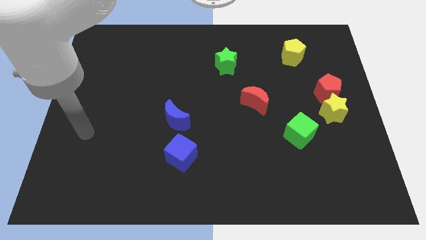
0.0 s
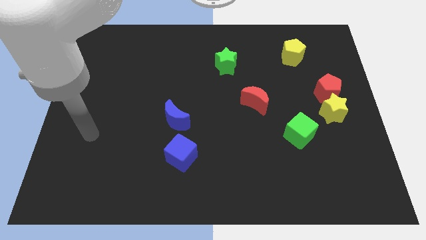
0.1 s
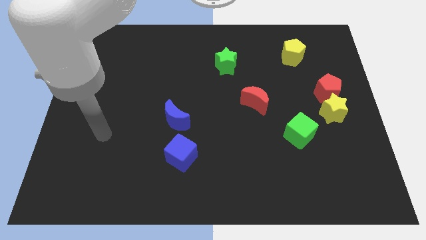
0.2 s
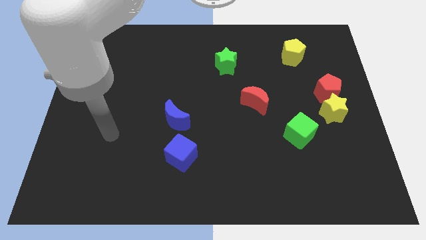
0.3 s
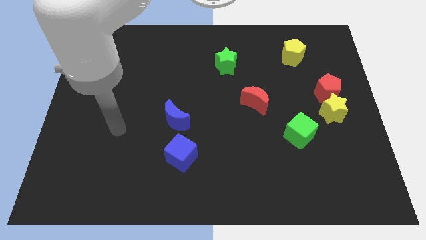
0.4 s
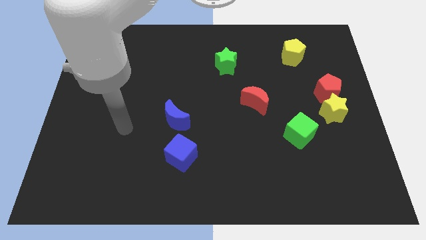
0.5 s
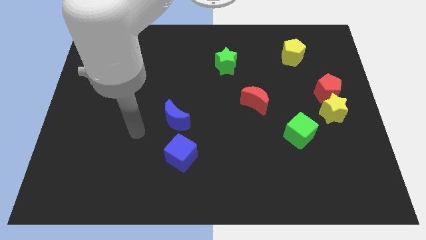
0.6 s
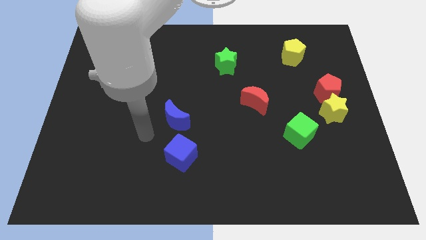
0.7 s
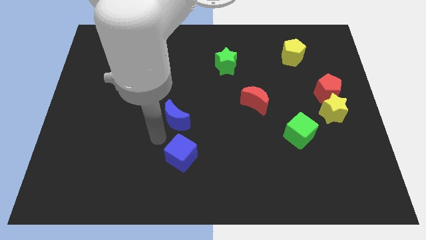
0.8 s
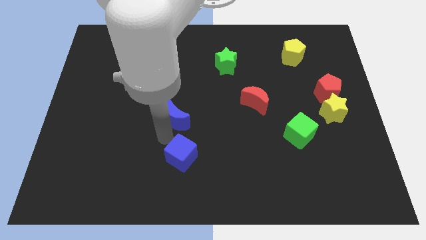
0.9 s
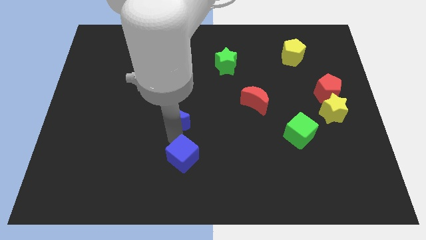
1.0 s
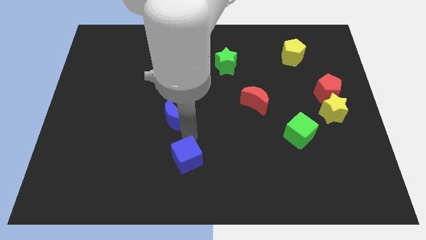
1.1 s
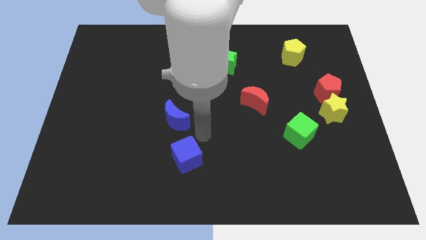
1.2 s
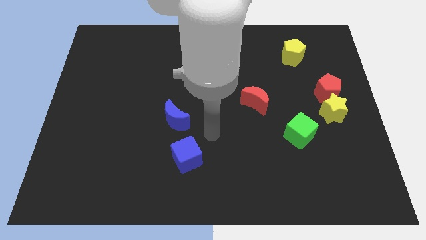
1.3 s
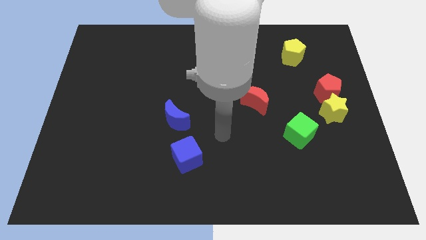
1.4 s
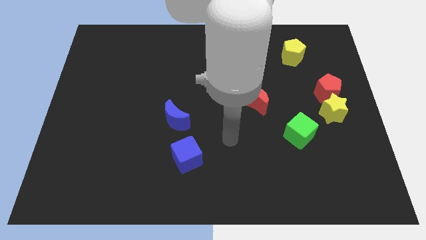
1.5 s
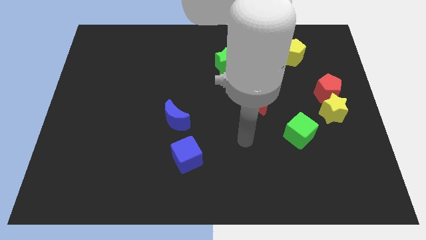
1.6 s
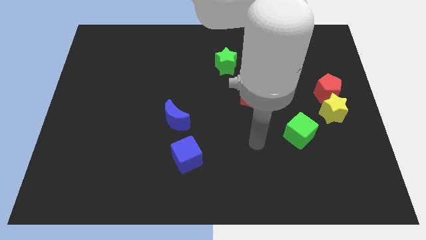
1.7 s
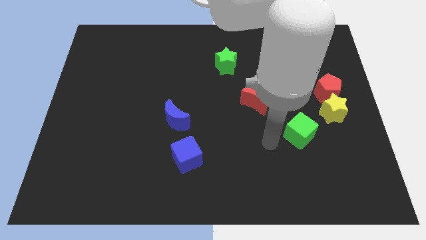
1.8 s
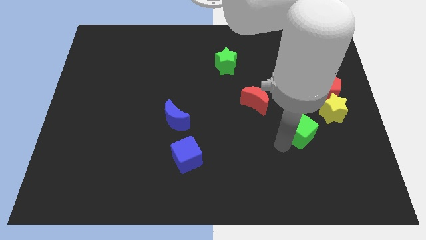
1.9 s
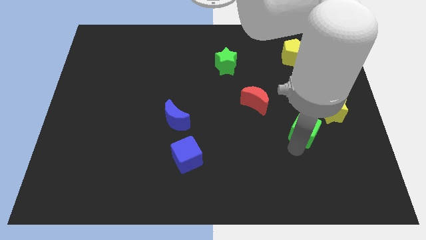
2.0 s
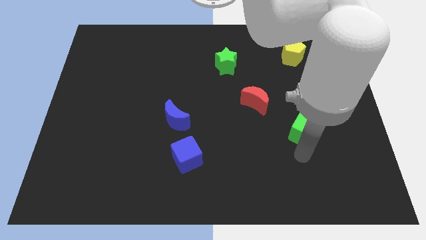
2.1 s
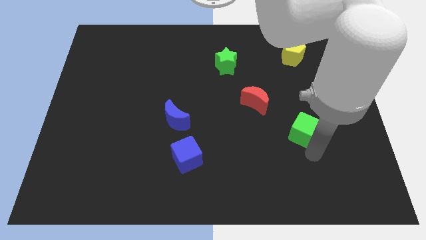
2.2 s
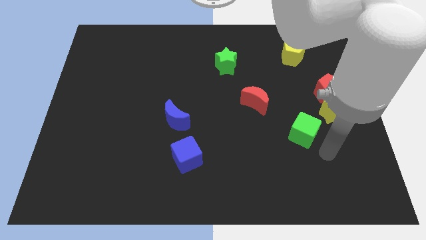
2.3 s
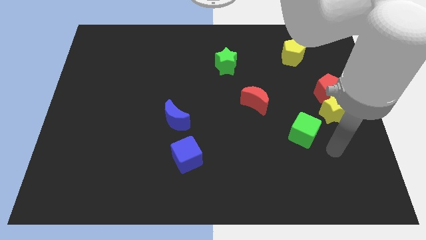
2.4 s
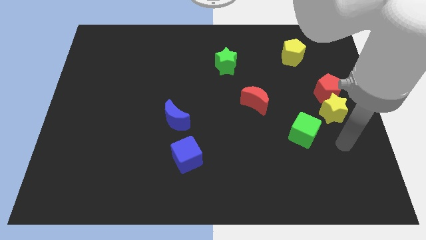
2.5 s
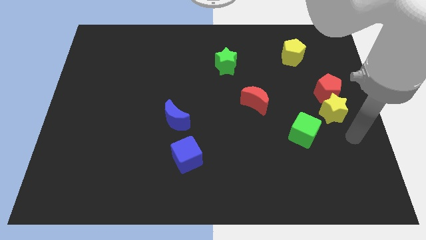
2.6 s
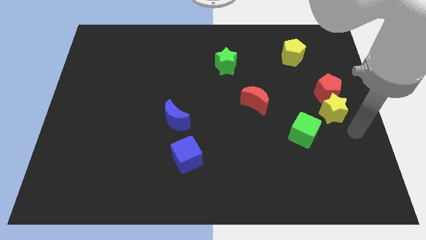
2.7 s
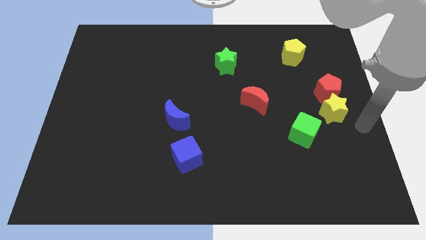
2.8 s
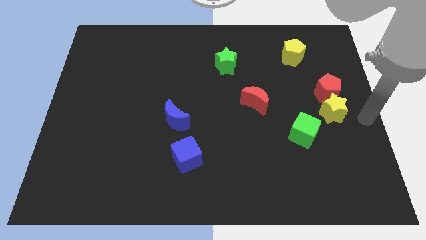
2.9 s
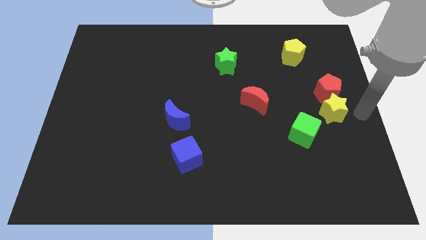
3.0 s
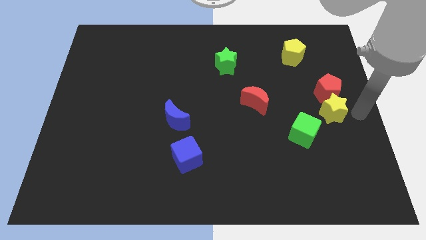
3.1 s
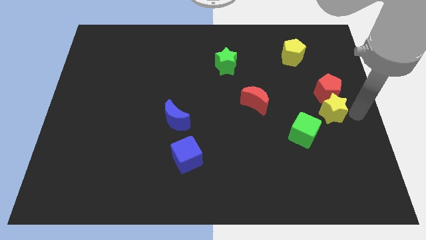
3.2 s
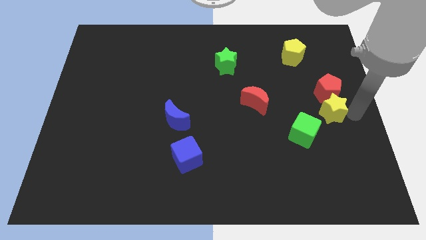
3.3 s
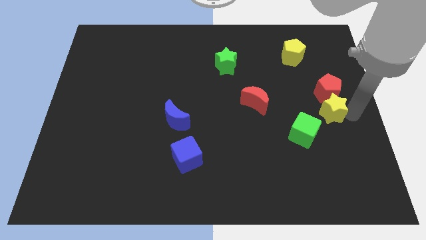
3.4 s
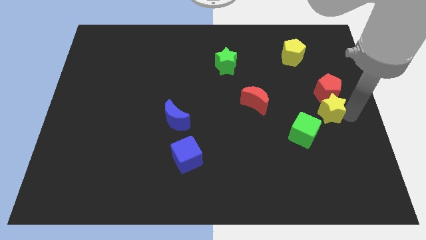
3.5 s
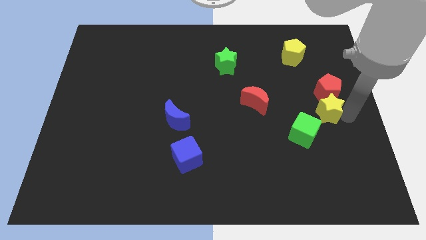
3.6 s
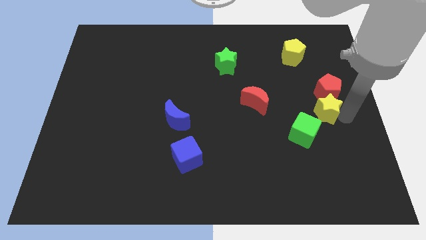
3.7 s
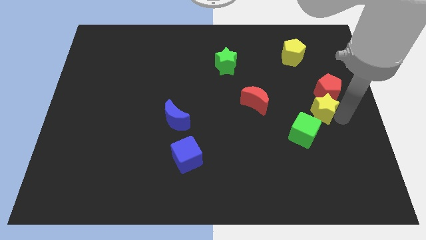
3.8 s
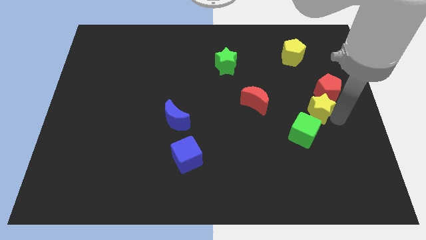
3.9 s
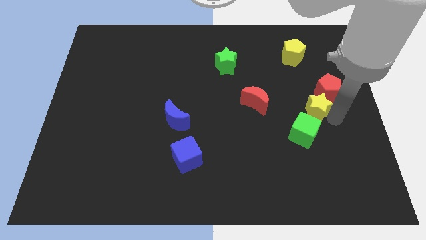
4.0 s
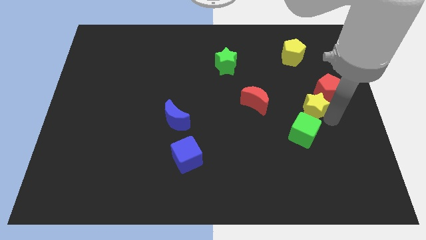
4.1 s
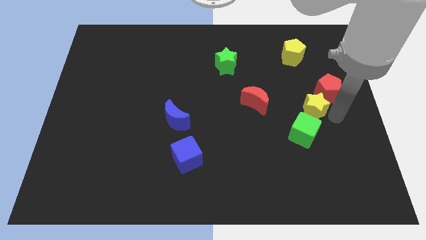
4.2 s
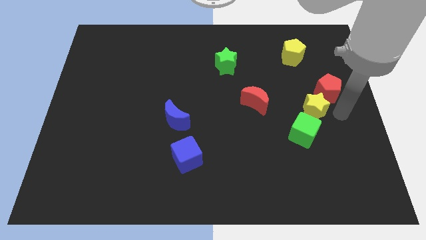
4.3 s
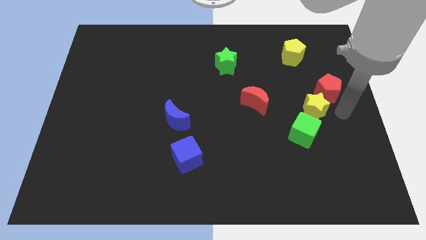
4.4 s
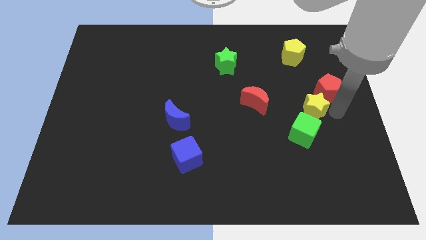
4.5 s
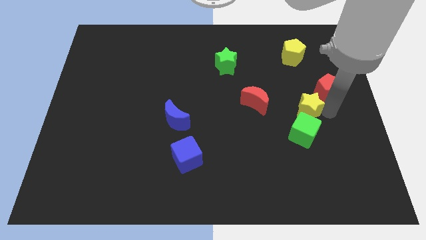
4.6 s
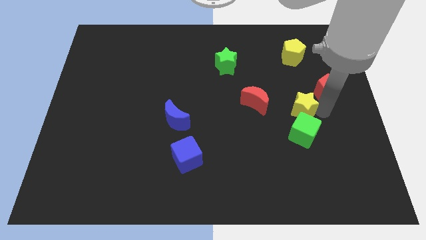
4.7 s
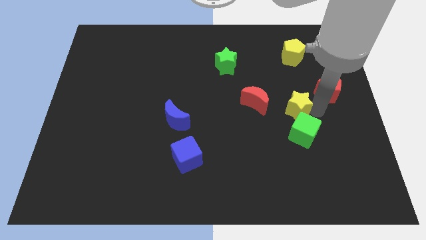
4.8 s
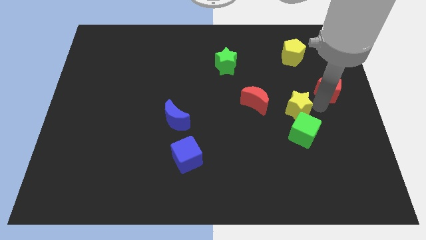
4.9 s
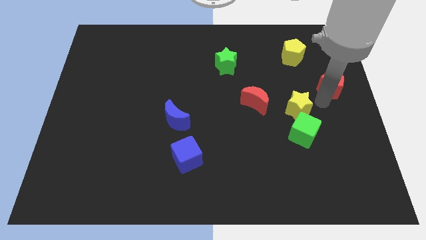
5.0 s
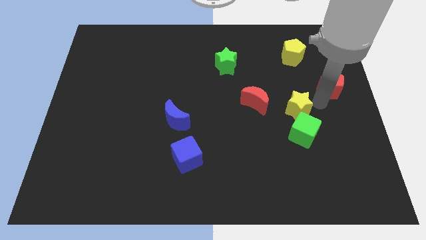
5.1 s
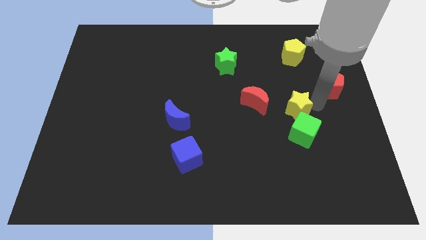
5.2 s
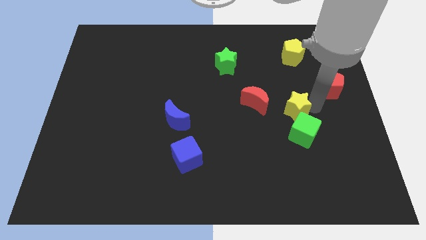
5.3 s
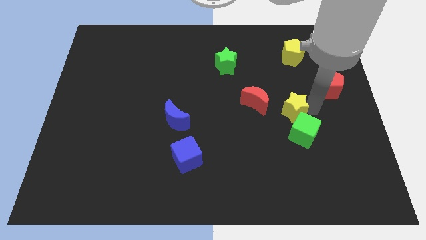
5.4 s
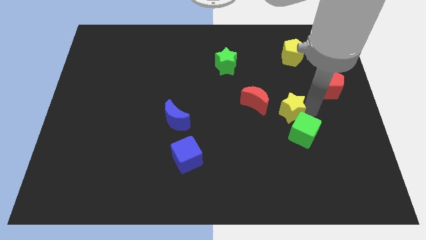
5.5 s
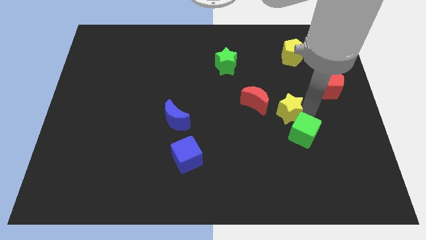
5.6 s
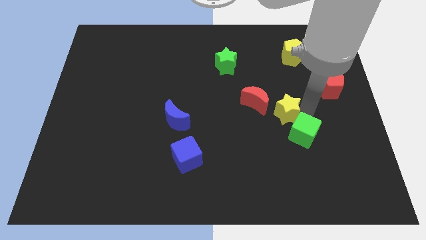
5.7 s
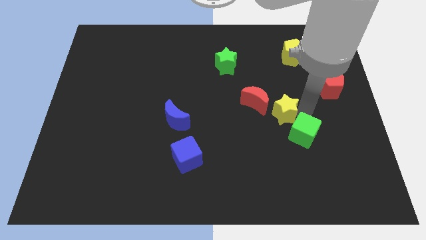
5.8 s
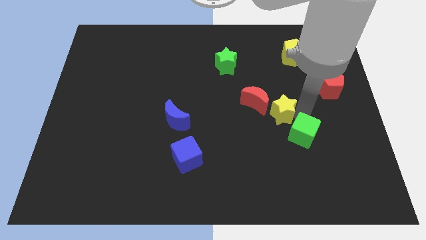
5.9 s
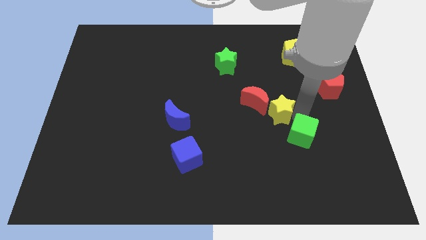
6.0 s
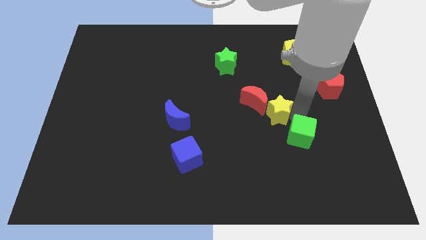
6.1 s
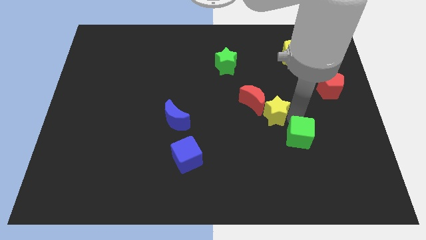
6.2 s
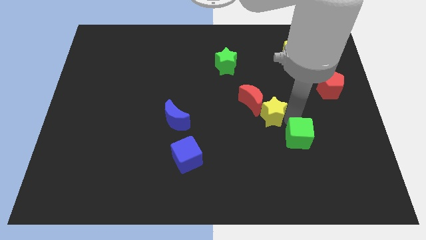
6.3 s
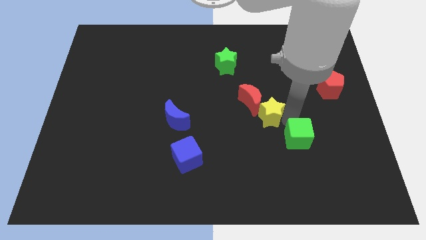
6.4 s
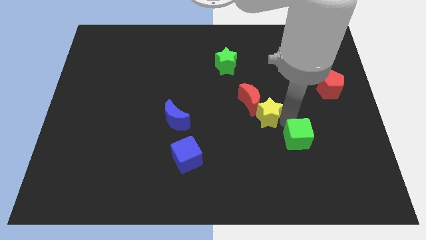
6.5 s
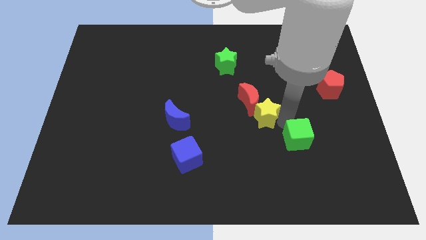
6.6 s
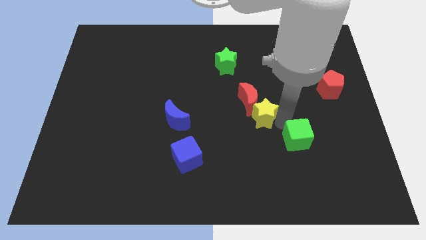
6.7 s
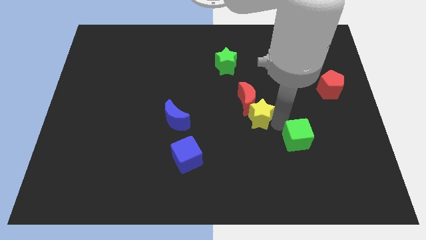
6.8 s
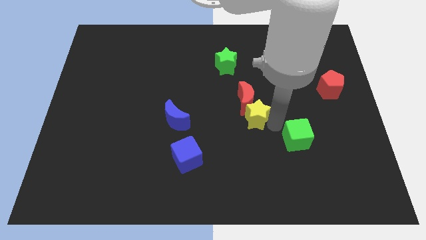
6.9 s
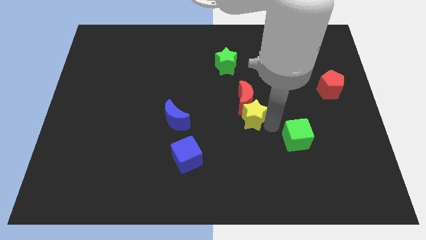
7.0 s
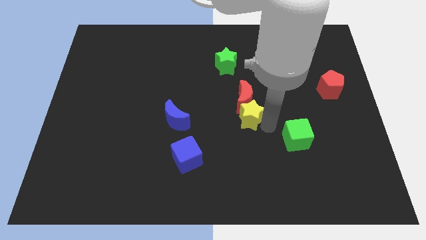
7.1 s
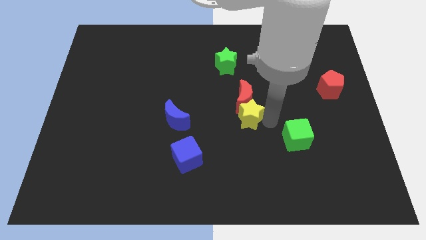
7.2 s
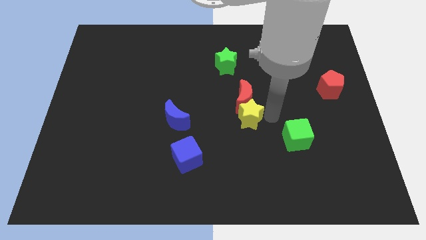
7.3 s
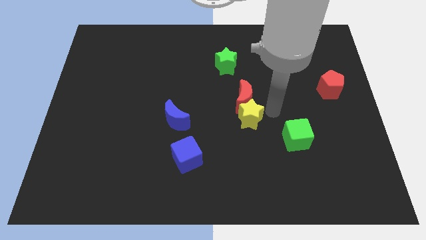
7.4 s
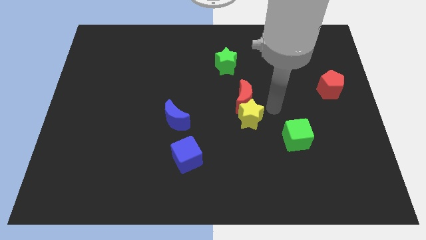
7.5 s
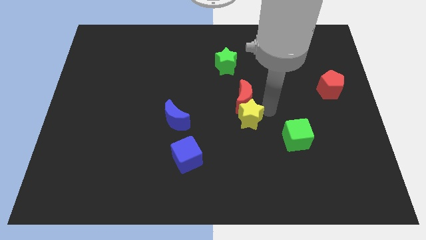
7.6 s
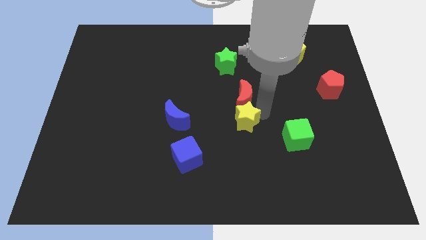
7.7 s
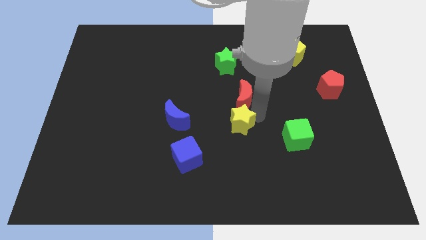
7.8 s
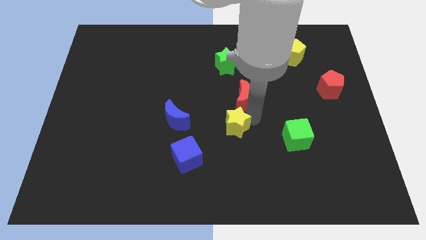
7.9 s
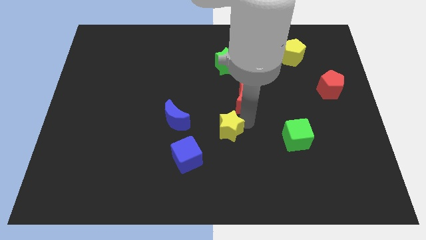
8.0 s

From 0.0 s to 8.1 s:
slide the yellow star to the top right of the blue cube
